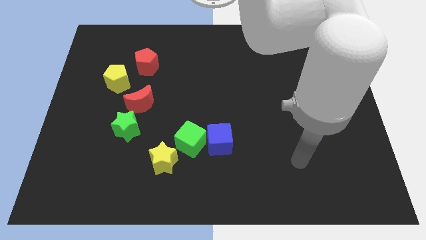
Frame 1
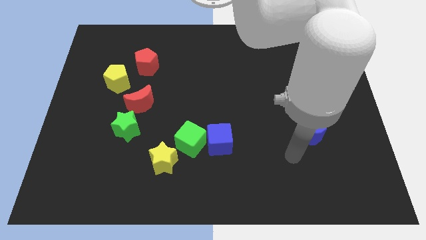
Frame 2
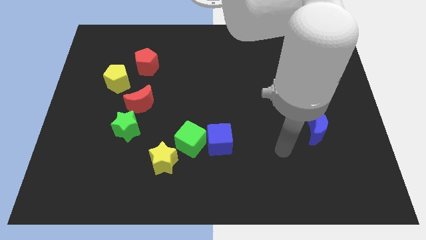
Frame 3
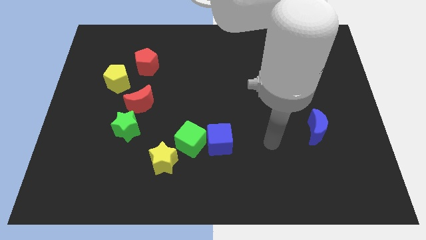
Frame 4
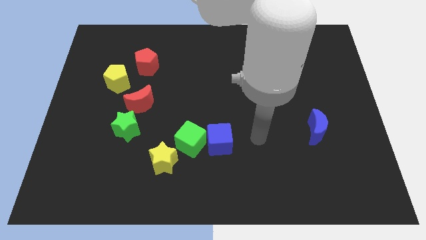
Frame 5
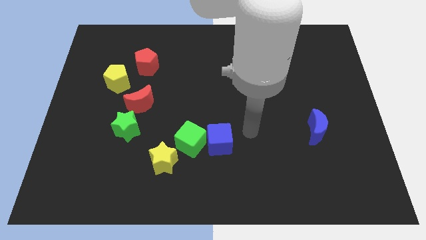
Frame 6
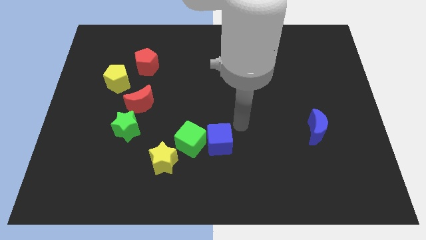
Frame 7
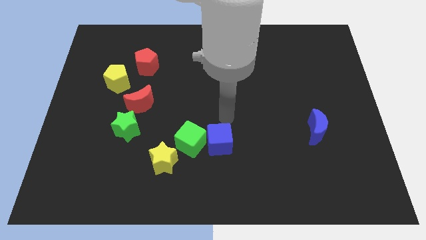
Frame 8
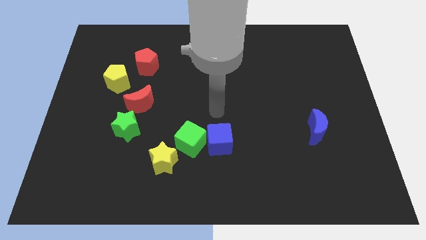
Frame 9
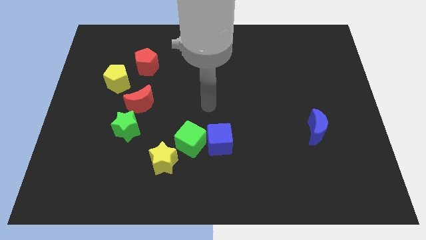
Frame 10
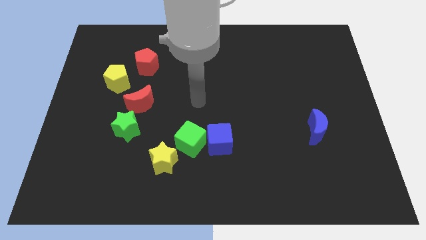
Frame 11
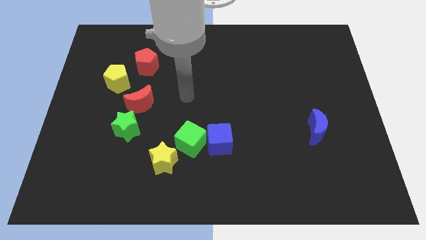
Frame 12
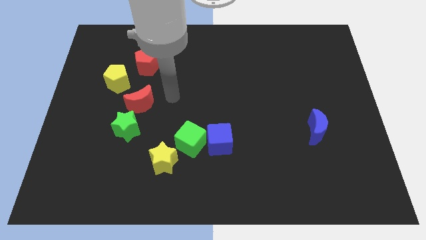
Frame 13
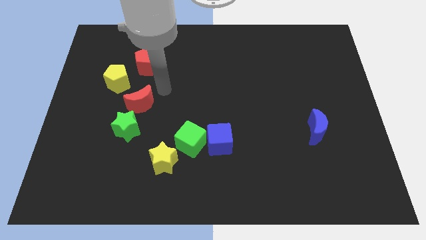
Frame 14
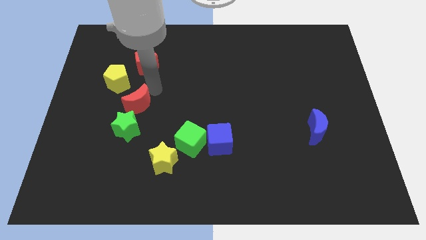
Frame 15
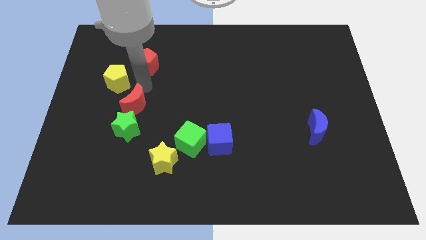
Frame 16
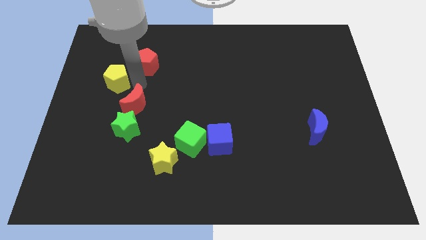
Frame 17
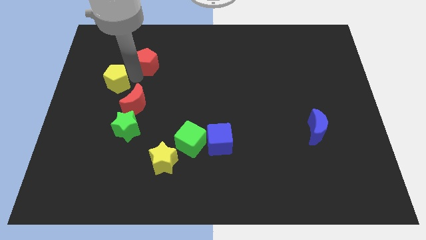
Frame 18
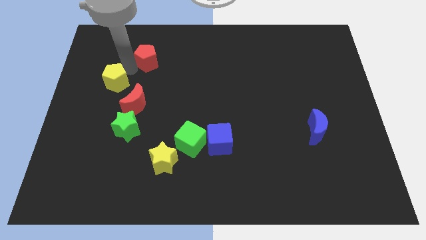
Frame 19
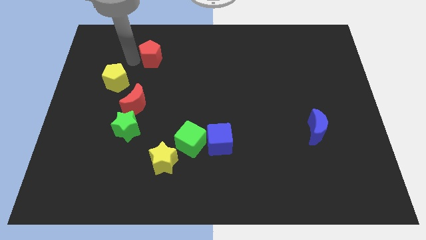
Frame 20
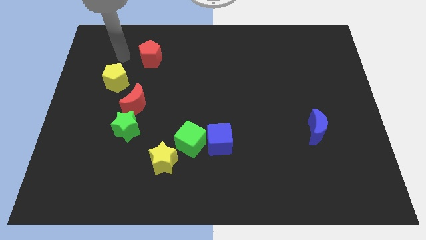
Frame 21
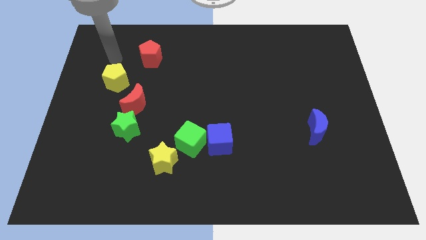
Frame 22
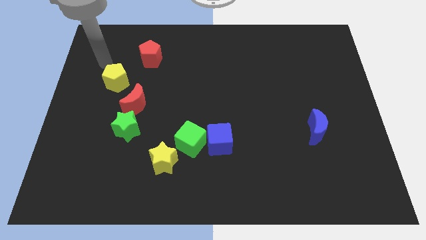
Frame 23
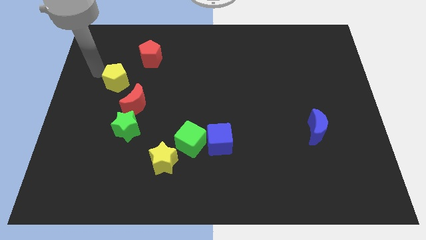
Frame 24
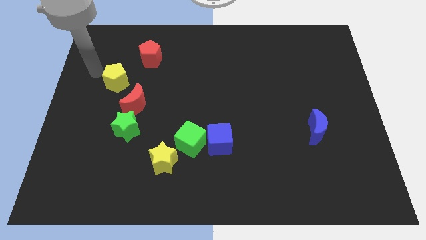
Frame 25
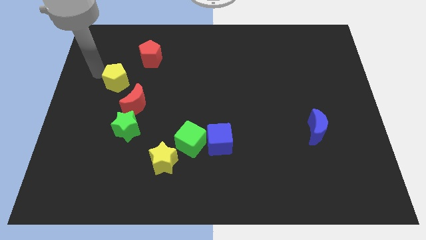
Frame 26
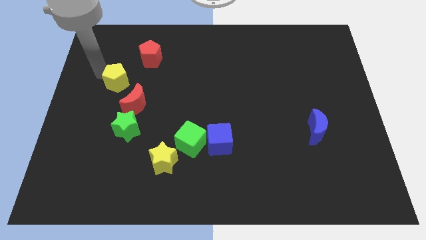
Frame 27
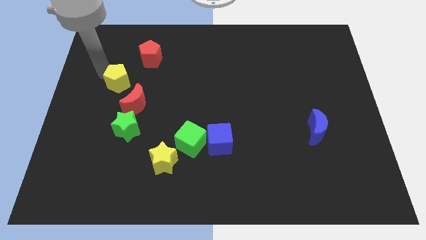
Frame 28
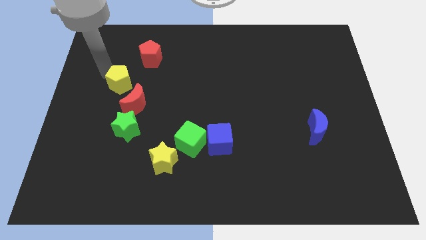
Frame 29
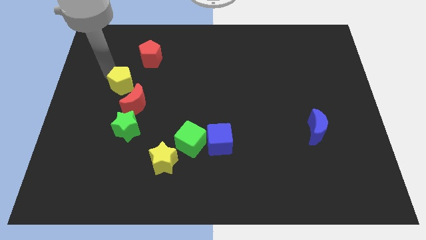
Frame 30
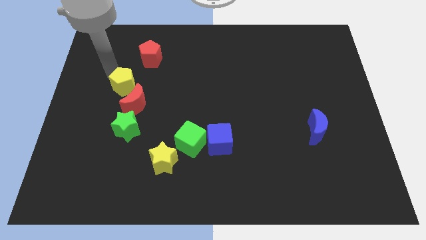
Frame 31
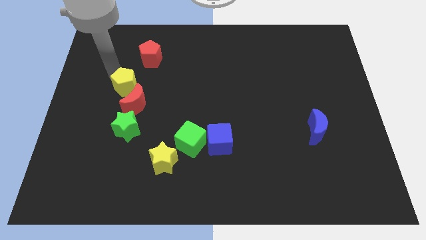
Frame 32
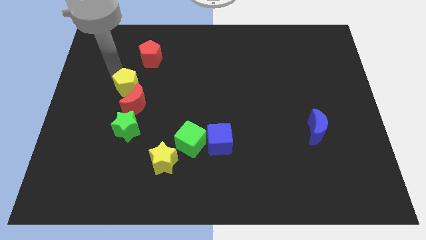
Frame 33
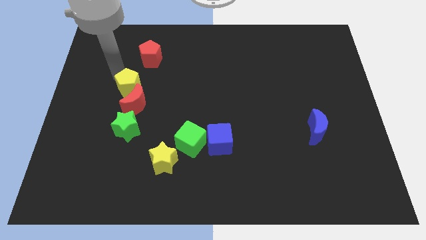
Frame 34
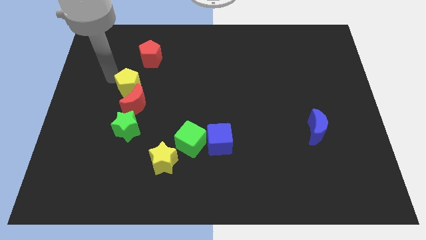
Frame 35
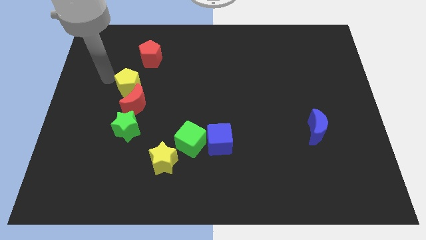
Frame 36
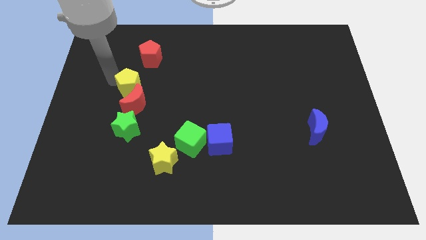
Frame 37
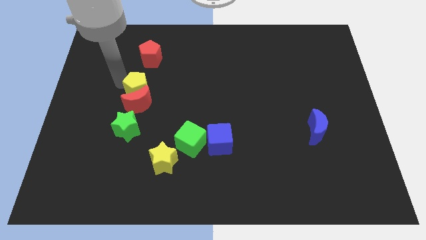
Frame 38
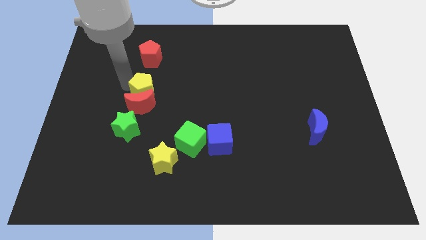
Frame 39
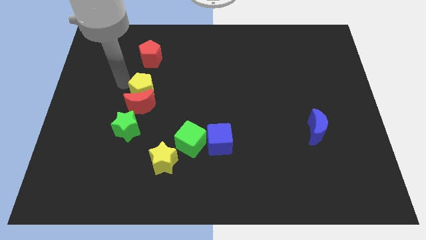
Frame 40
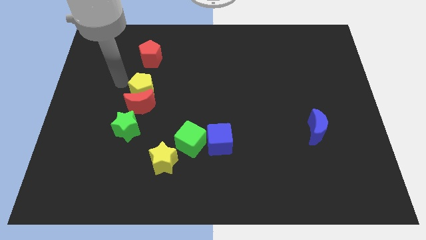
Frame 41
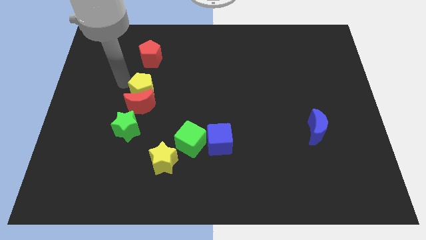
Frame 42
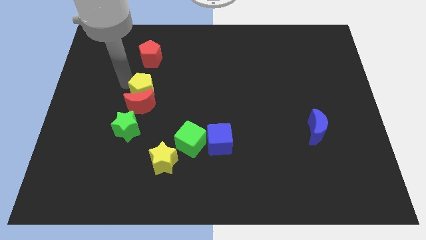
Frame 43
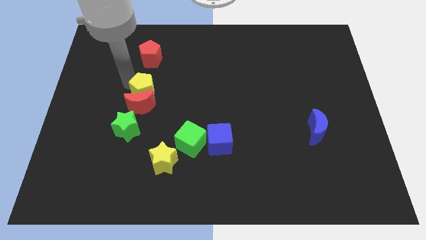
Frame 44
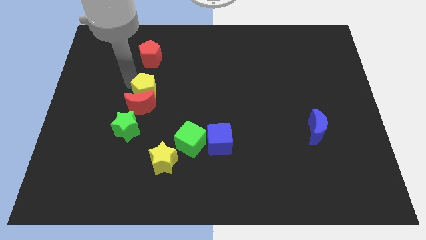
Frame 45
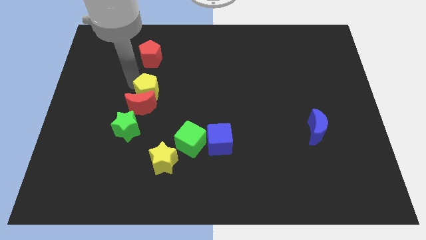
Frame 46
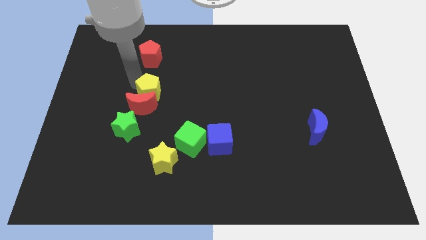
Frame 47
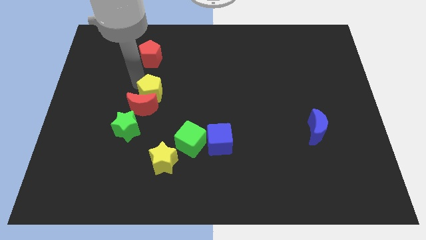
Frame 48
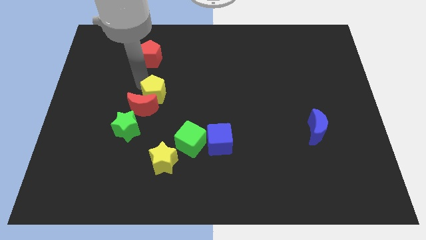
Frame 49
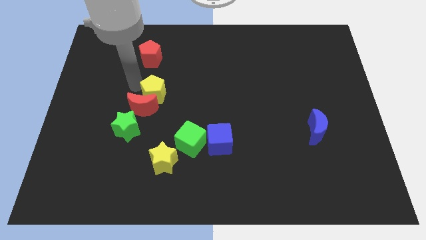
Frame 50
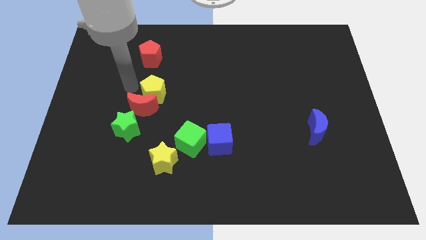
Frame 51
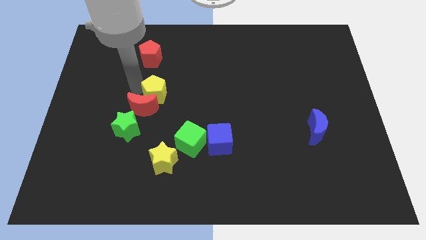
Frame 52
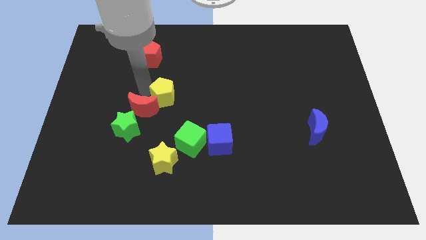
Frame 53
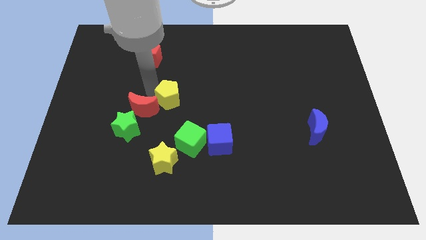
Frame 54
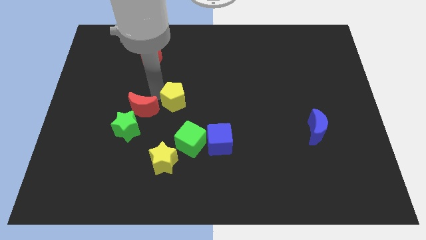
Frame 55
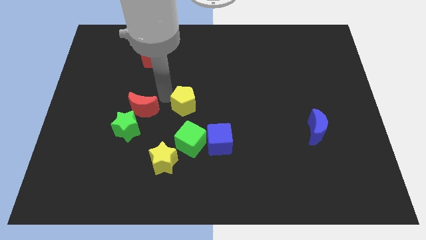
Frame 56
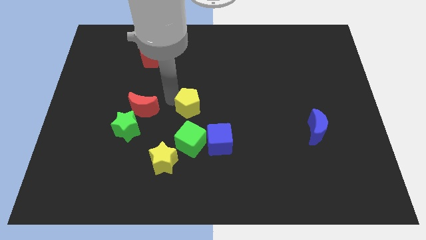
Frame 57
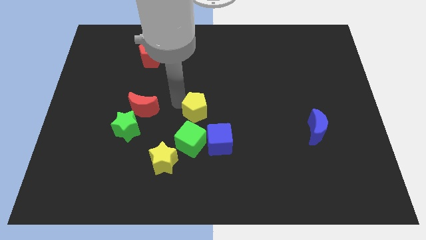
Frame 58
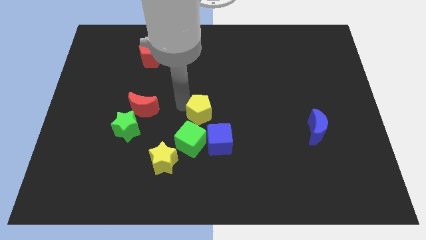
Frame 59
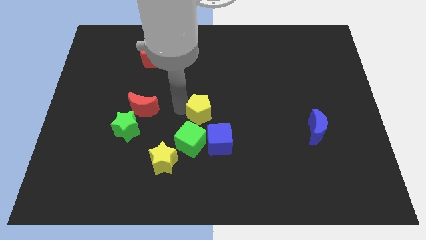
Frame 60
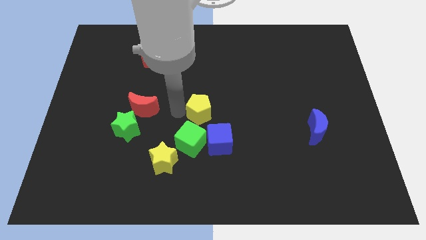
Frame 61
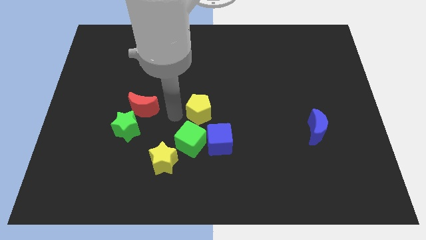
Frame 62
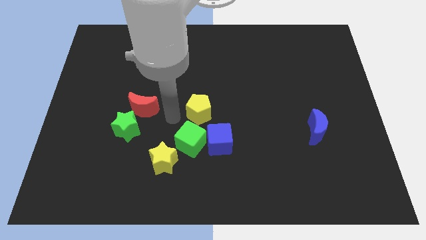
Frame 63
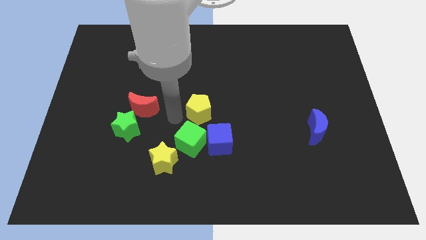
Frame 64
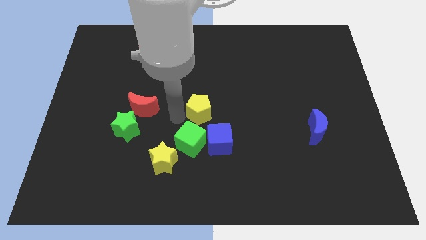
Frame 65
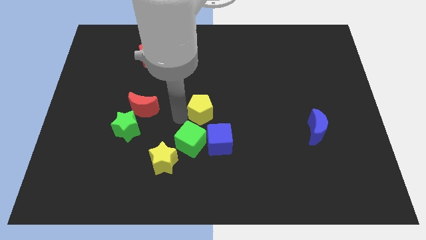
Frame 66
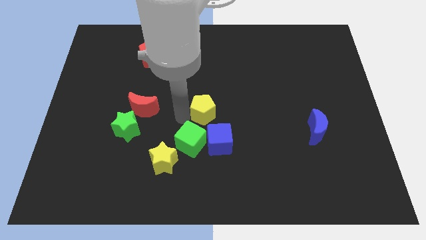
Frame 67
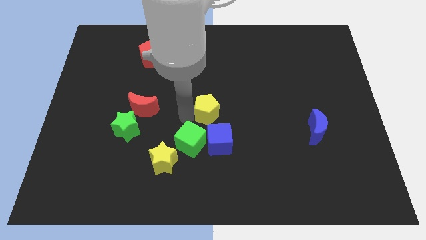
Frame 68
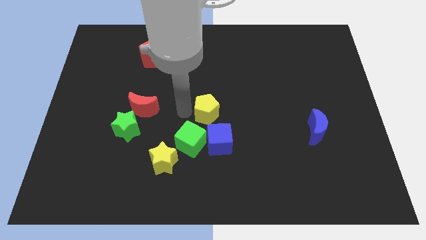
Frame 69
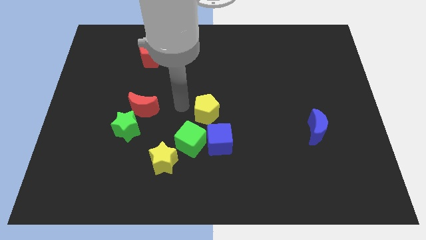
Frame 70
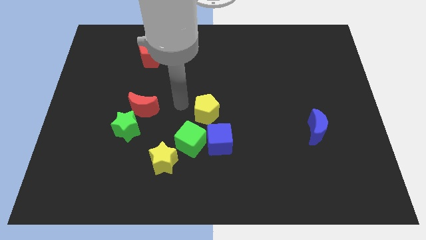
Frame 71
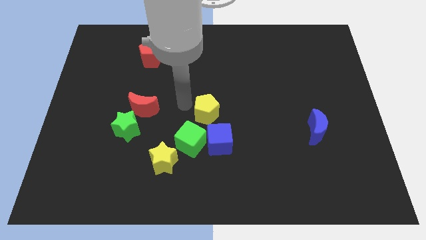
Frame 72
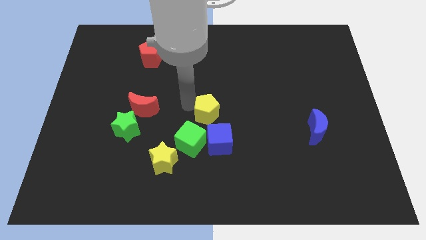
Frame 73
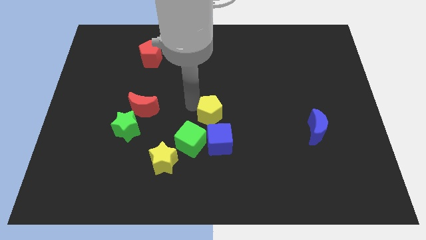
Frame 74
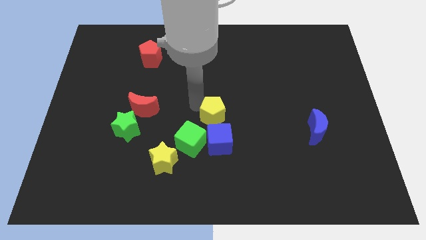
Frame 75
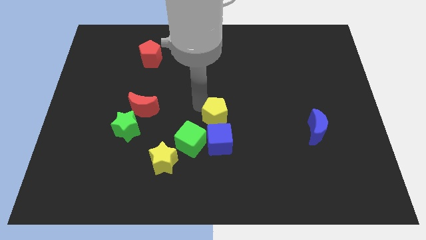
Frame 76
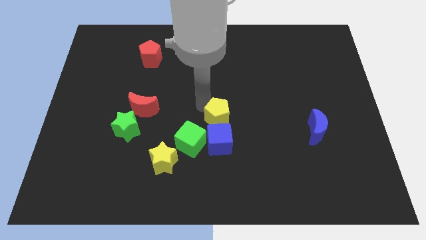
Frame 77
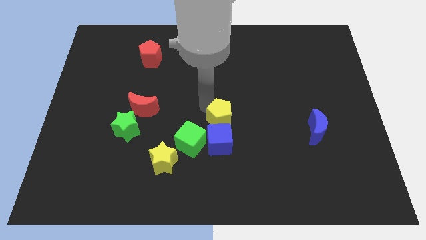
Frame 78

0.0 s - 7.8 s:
push the yellow pentagon to the top right of the blue cube
